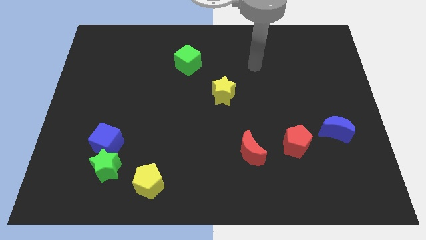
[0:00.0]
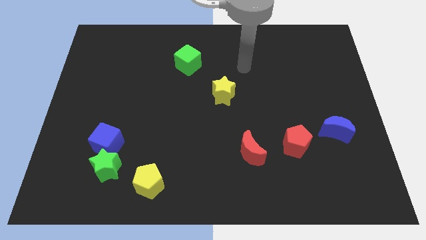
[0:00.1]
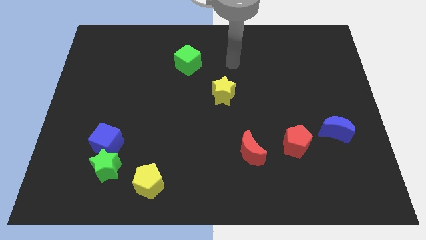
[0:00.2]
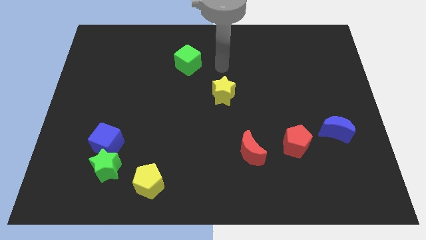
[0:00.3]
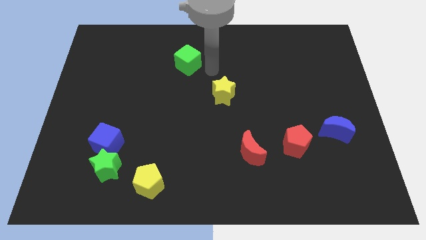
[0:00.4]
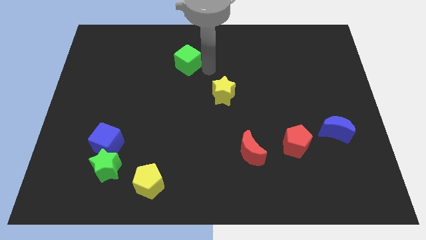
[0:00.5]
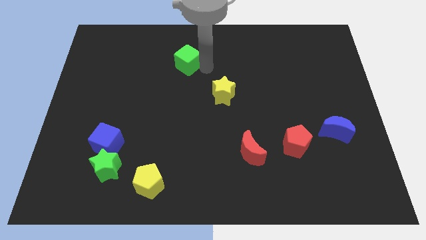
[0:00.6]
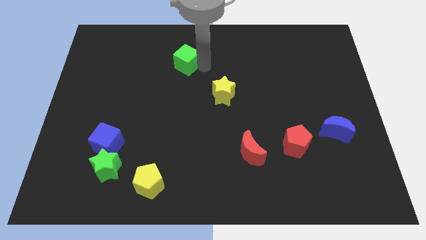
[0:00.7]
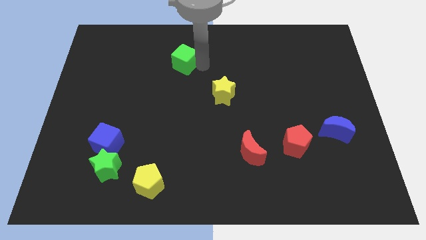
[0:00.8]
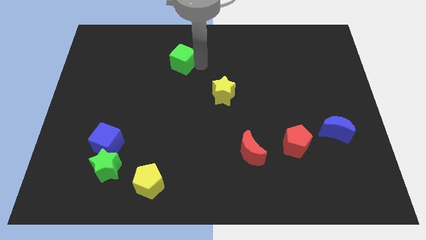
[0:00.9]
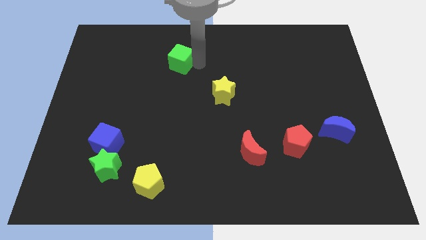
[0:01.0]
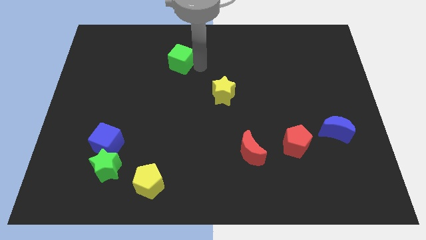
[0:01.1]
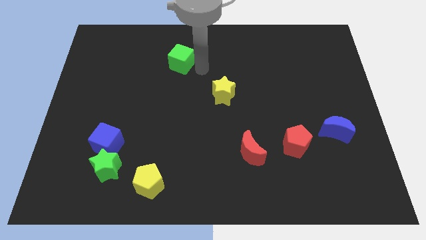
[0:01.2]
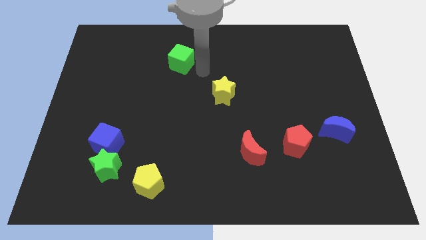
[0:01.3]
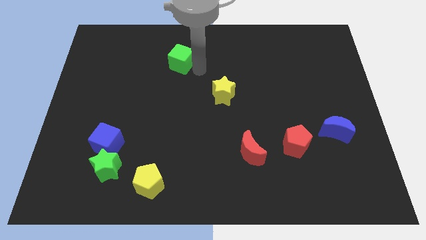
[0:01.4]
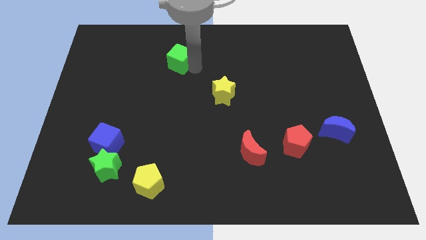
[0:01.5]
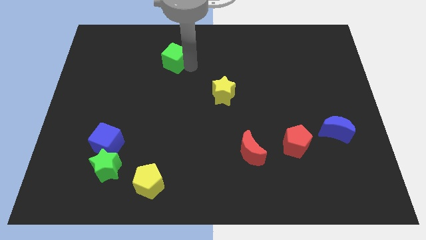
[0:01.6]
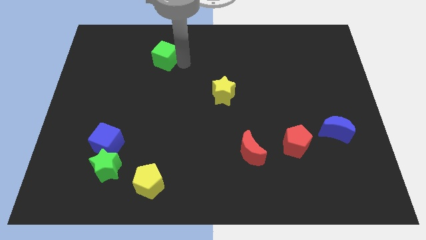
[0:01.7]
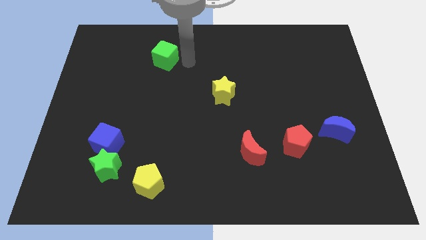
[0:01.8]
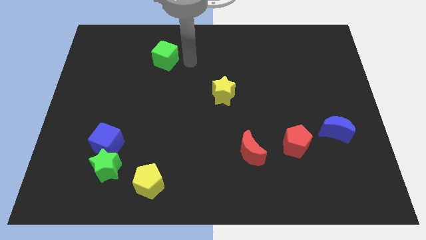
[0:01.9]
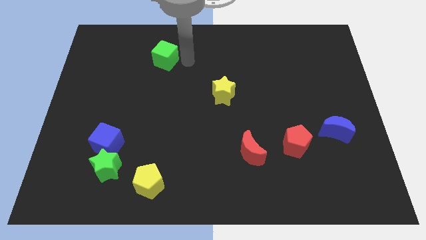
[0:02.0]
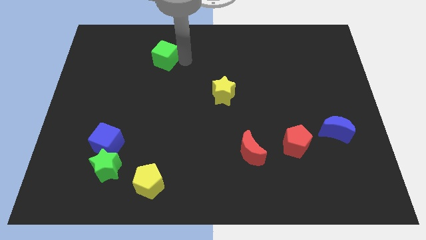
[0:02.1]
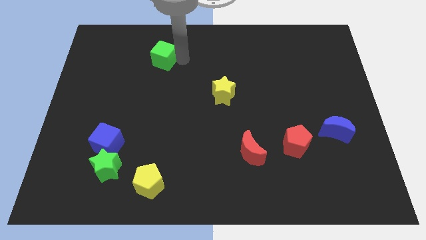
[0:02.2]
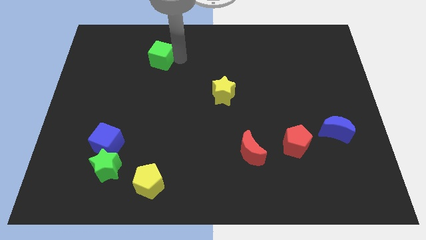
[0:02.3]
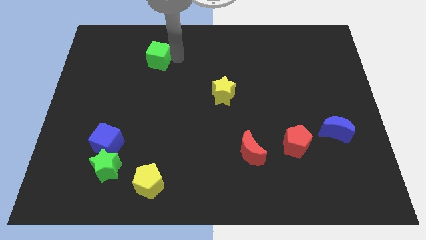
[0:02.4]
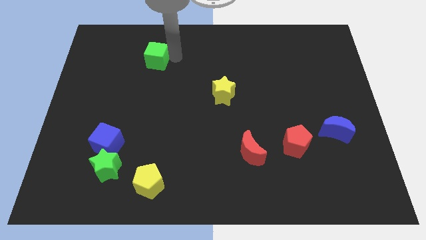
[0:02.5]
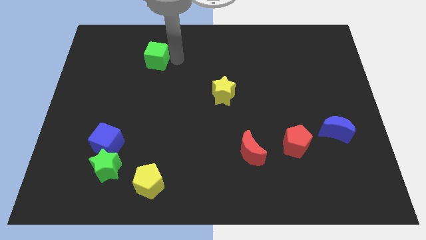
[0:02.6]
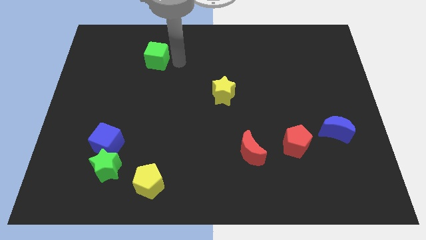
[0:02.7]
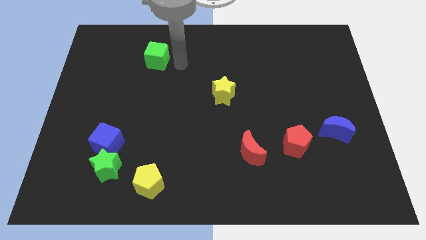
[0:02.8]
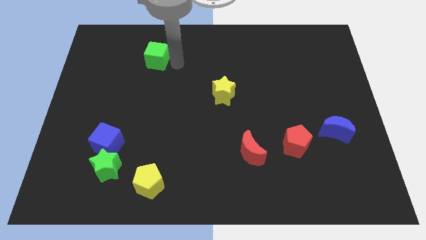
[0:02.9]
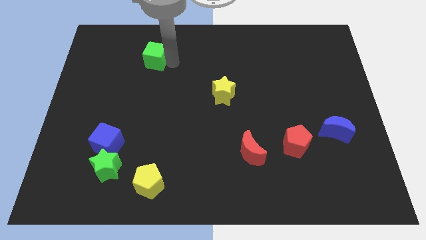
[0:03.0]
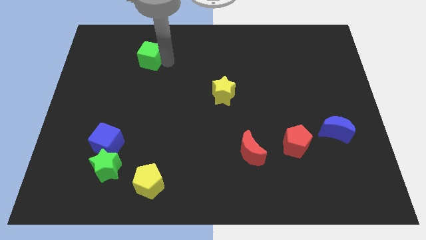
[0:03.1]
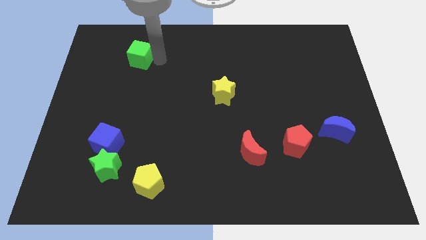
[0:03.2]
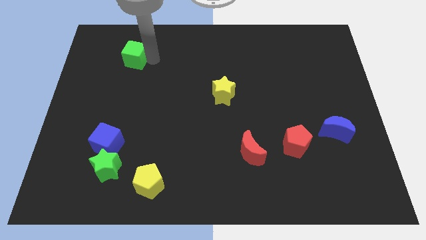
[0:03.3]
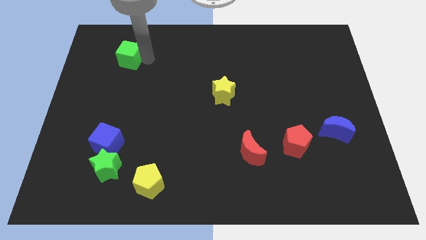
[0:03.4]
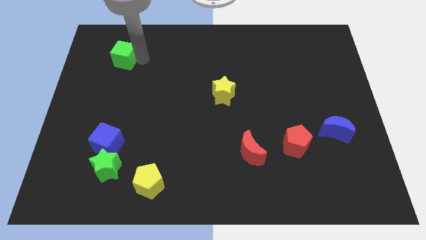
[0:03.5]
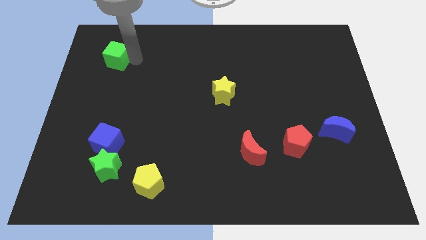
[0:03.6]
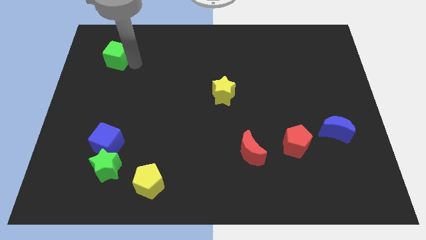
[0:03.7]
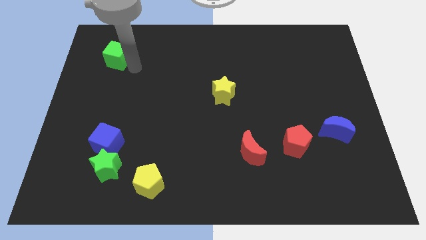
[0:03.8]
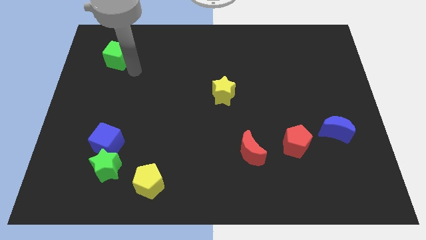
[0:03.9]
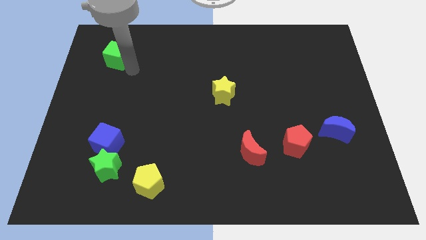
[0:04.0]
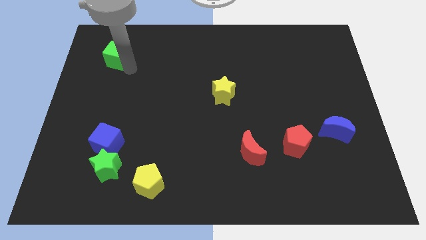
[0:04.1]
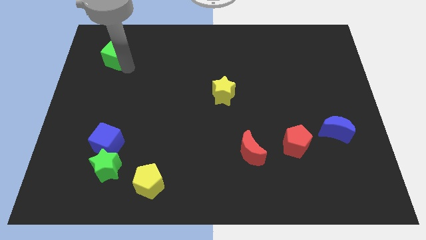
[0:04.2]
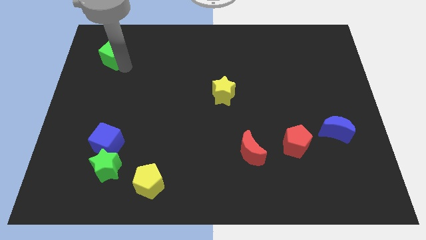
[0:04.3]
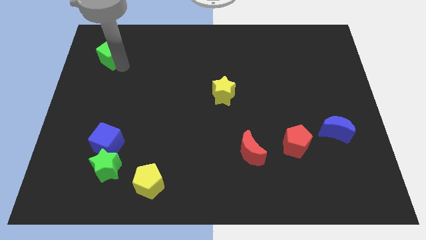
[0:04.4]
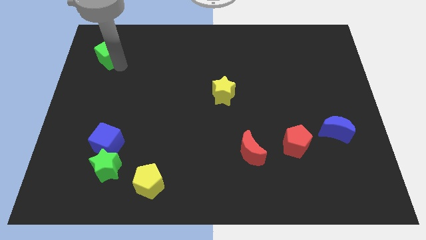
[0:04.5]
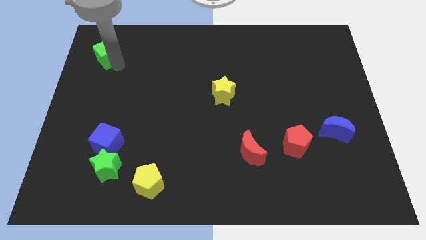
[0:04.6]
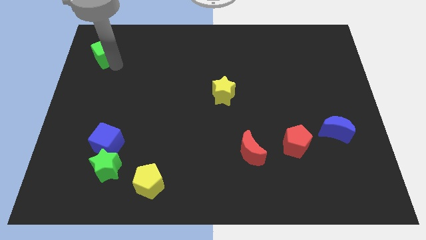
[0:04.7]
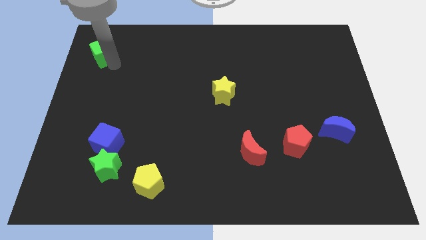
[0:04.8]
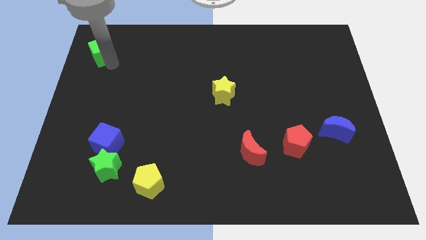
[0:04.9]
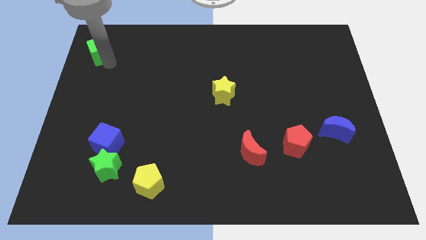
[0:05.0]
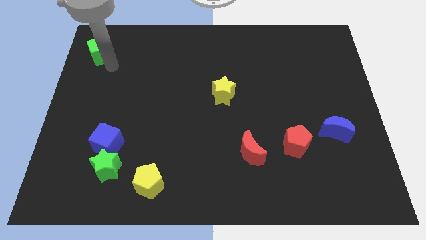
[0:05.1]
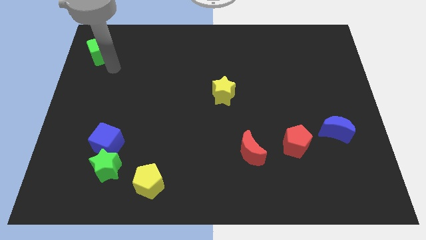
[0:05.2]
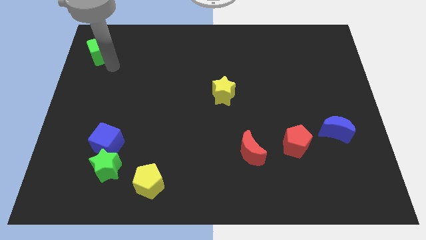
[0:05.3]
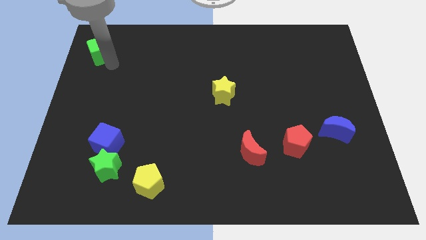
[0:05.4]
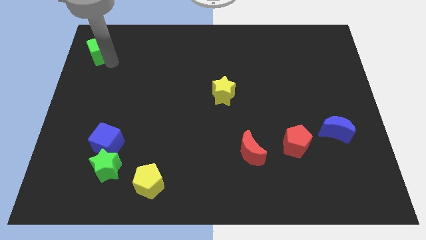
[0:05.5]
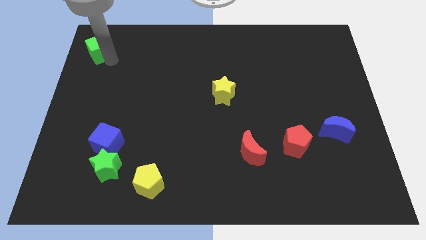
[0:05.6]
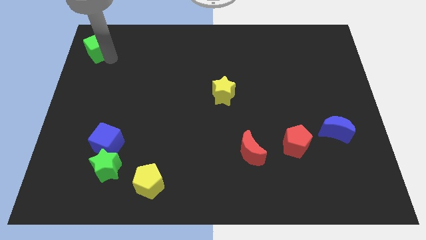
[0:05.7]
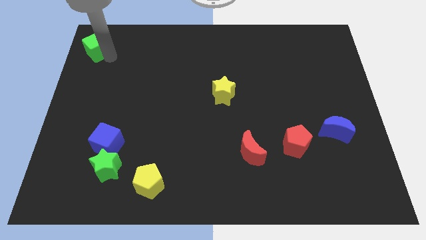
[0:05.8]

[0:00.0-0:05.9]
move the green cube to the top left

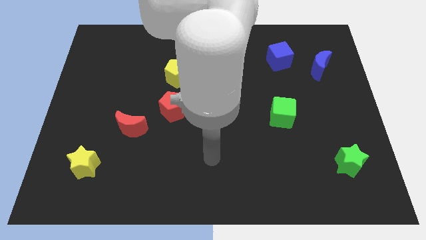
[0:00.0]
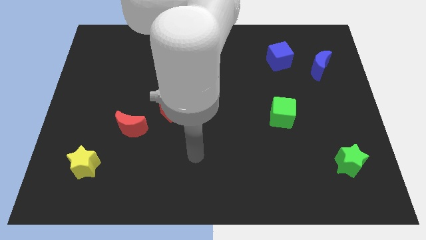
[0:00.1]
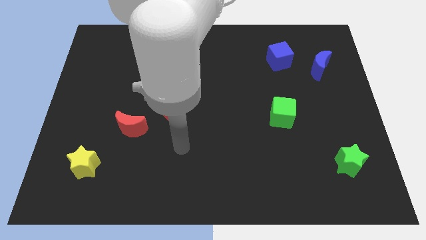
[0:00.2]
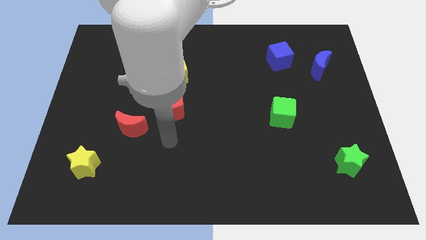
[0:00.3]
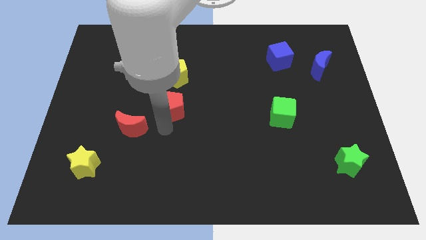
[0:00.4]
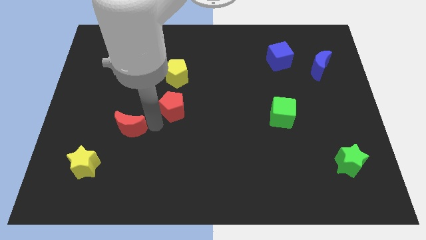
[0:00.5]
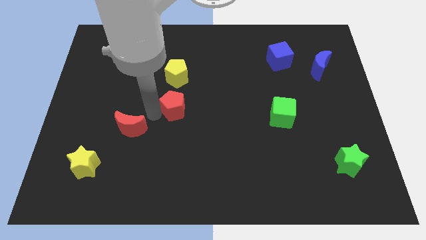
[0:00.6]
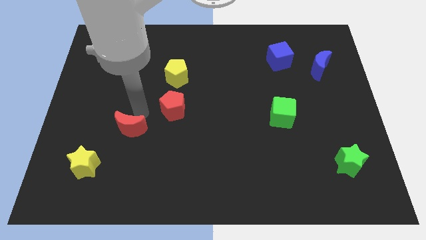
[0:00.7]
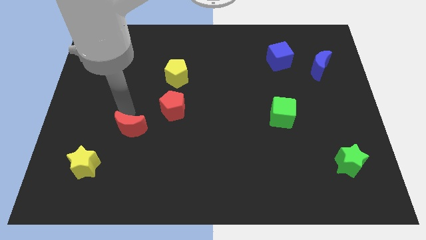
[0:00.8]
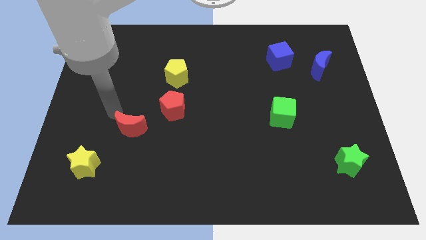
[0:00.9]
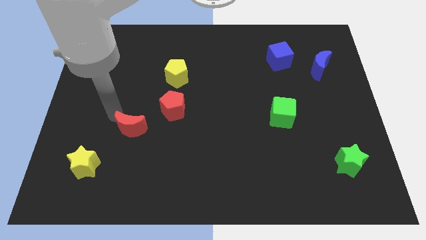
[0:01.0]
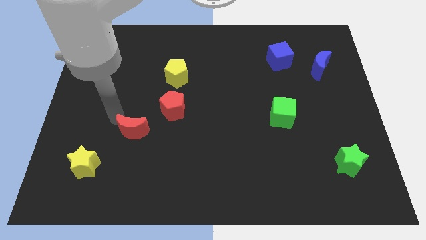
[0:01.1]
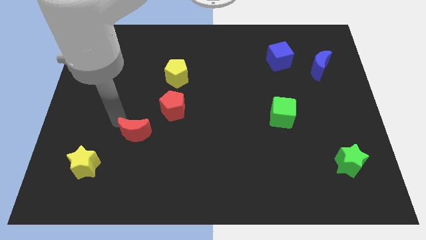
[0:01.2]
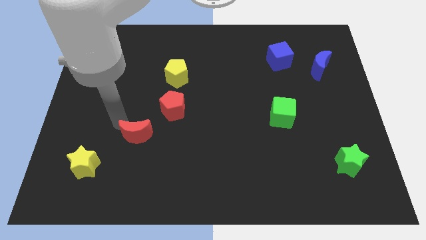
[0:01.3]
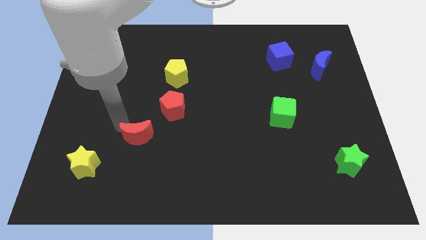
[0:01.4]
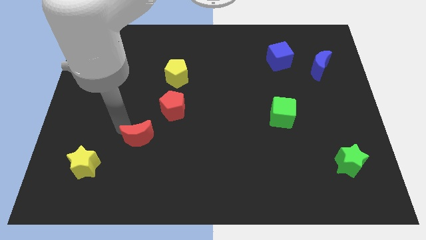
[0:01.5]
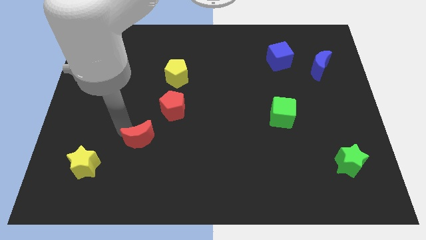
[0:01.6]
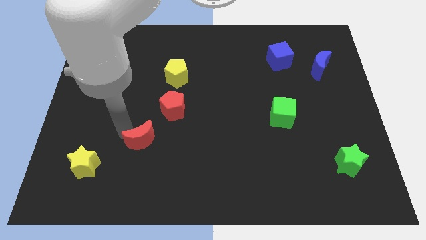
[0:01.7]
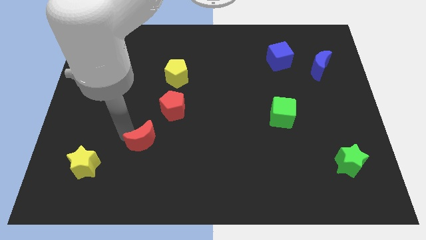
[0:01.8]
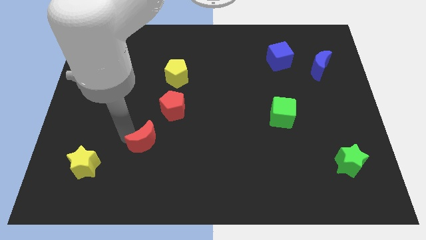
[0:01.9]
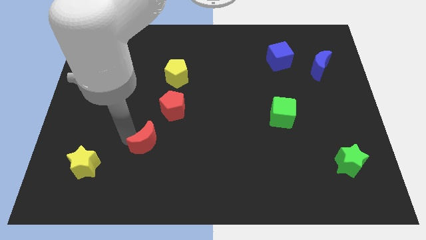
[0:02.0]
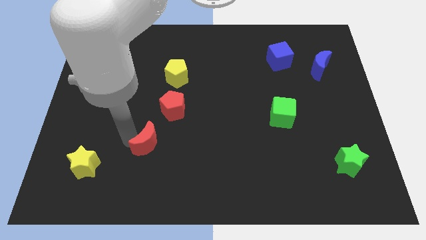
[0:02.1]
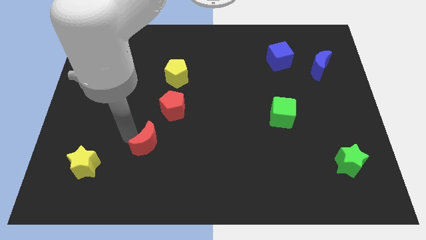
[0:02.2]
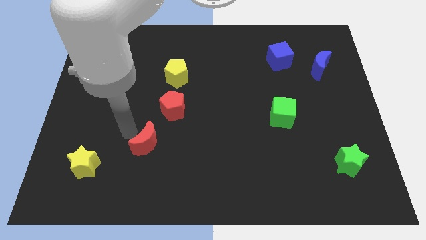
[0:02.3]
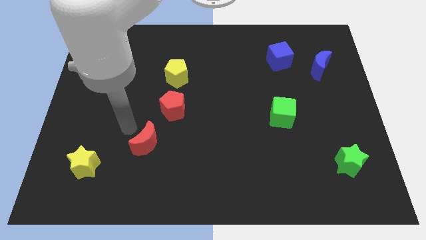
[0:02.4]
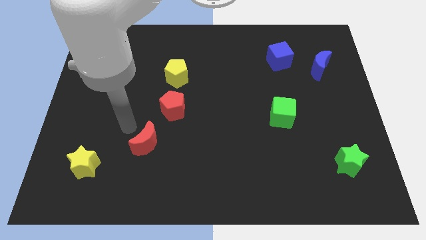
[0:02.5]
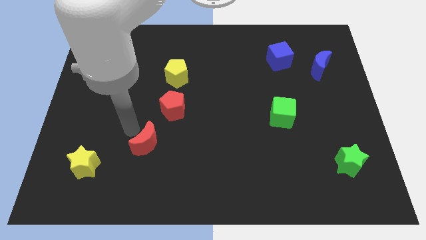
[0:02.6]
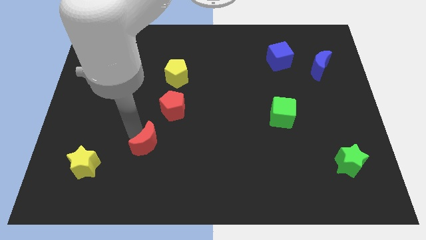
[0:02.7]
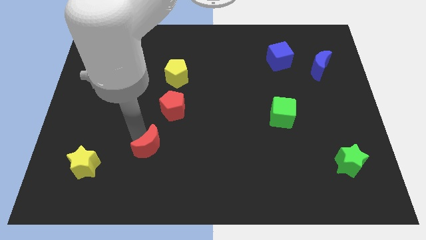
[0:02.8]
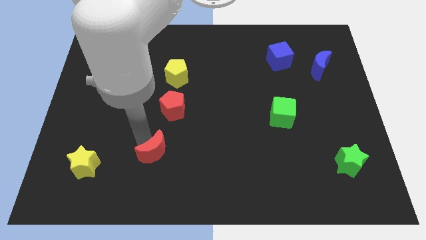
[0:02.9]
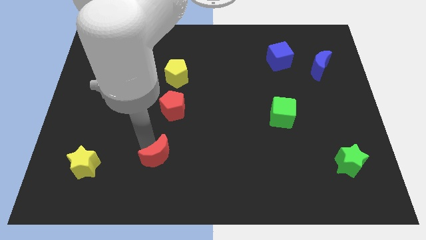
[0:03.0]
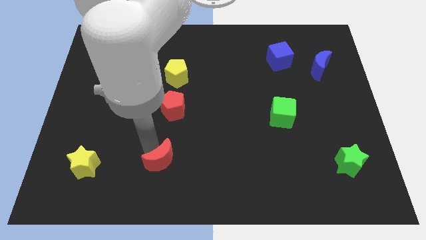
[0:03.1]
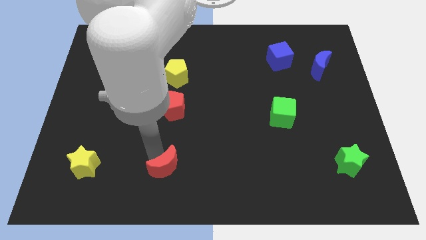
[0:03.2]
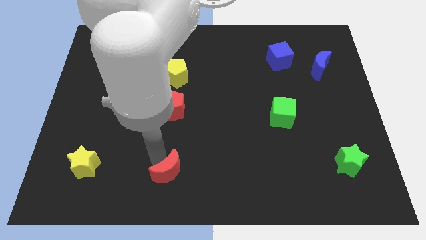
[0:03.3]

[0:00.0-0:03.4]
move the red moon to the bottom side
